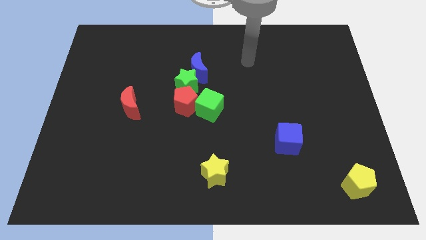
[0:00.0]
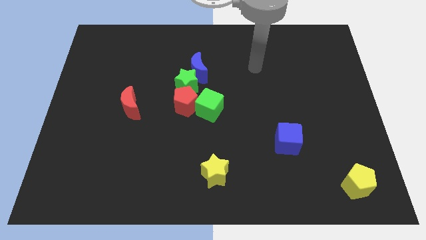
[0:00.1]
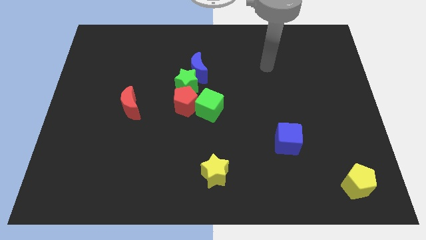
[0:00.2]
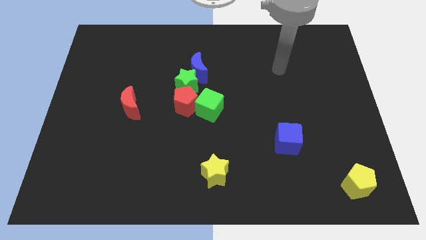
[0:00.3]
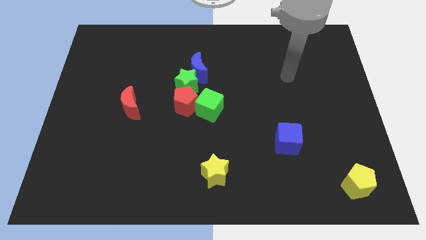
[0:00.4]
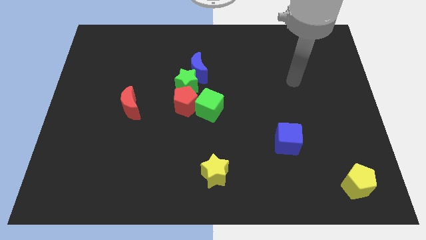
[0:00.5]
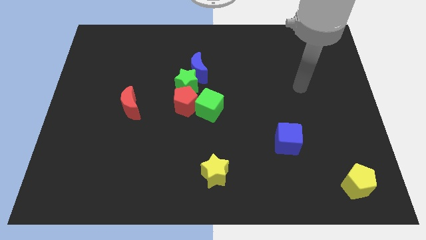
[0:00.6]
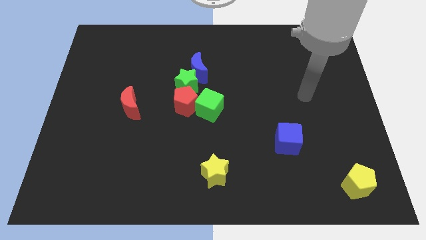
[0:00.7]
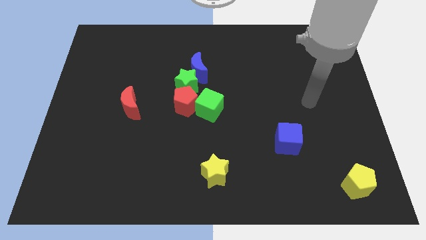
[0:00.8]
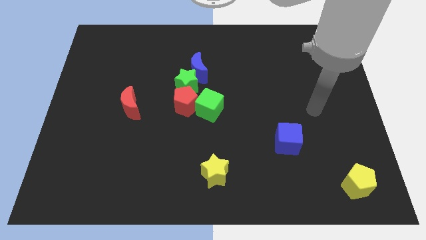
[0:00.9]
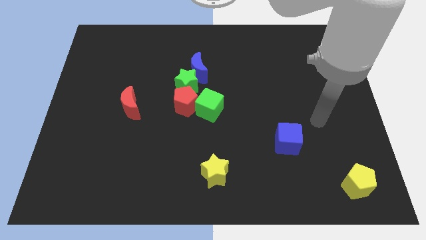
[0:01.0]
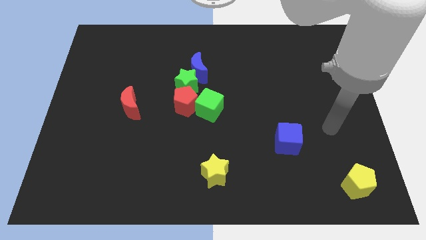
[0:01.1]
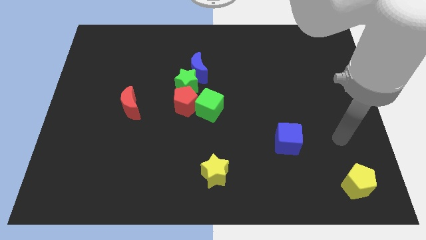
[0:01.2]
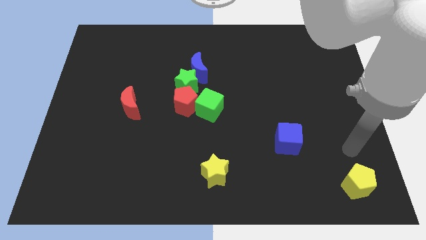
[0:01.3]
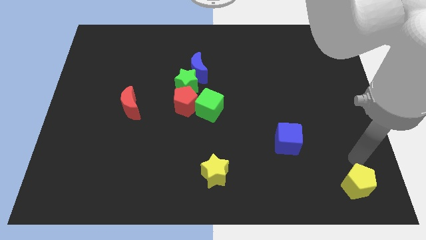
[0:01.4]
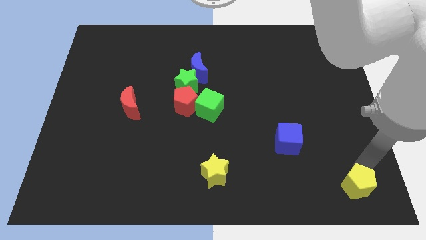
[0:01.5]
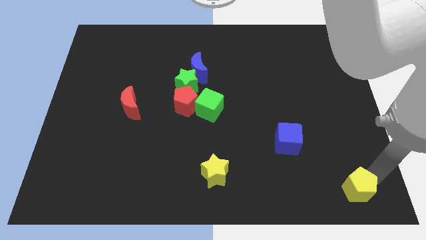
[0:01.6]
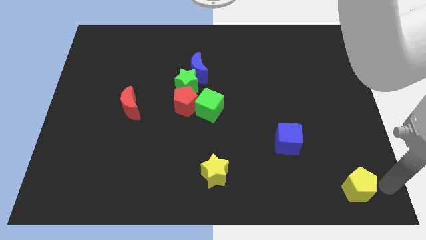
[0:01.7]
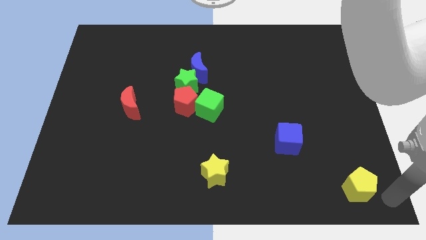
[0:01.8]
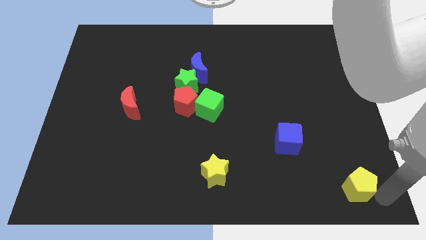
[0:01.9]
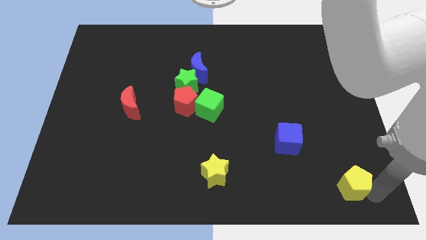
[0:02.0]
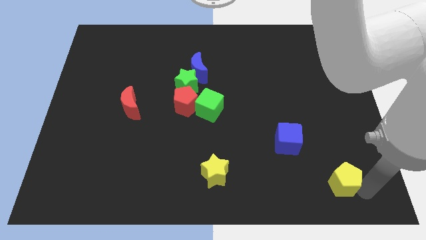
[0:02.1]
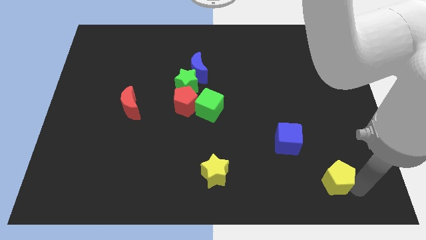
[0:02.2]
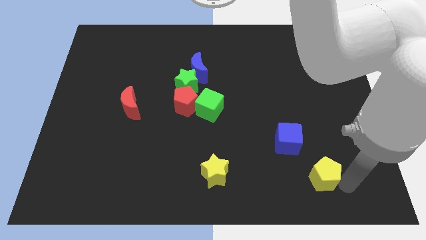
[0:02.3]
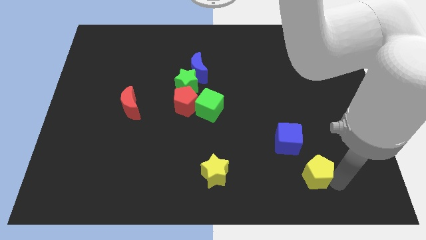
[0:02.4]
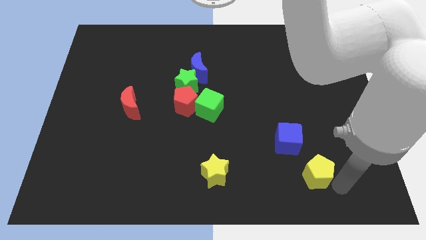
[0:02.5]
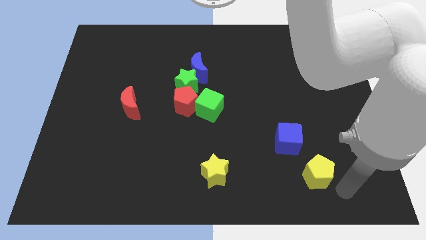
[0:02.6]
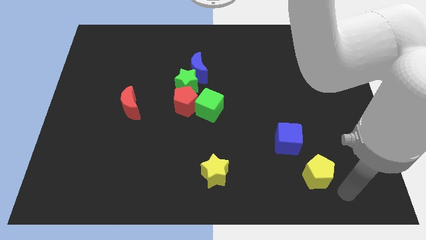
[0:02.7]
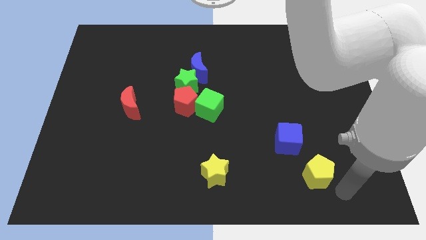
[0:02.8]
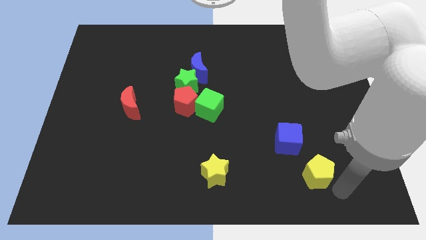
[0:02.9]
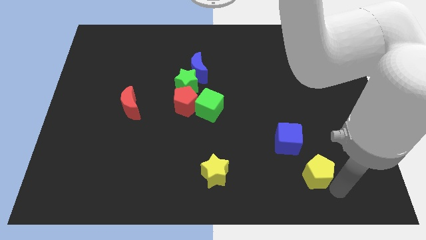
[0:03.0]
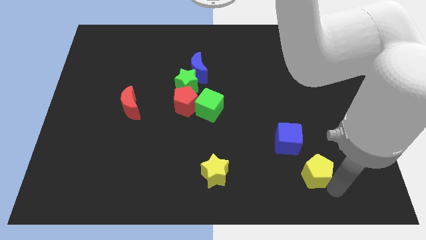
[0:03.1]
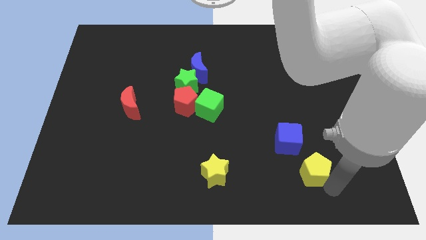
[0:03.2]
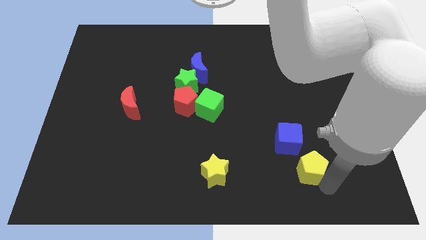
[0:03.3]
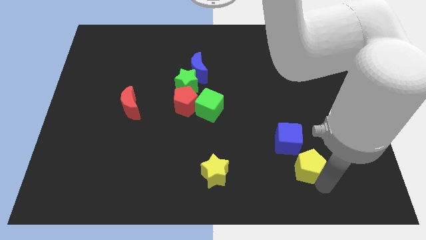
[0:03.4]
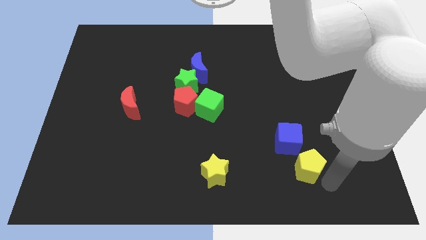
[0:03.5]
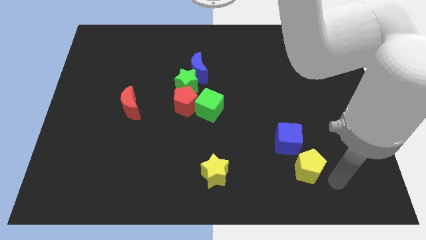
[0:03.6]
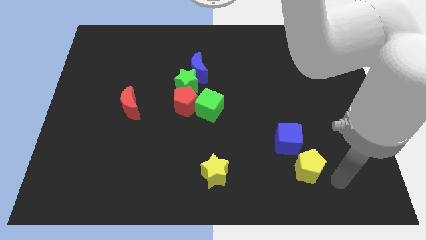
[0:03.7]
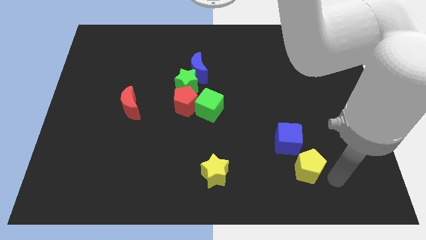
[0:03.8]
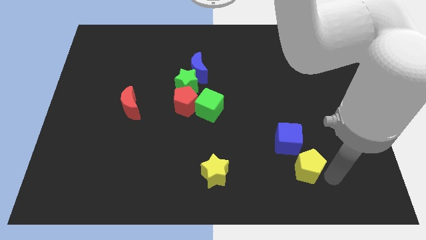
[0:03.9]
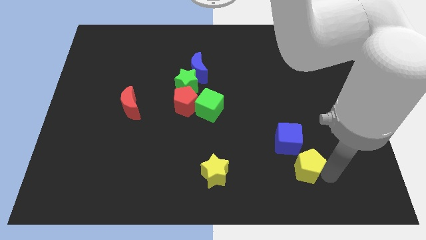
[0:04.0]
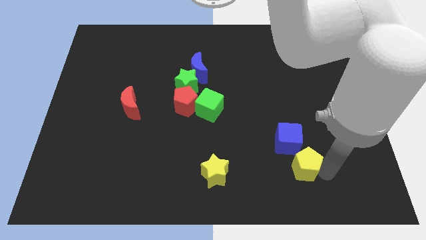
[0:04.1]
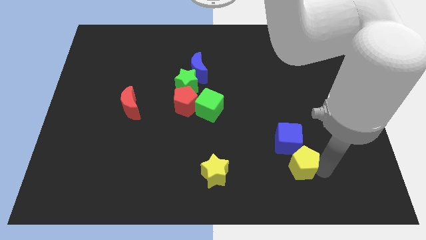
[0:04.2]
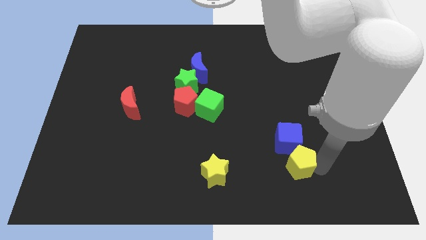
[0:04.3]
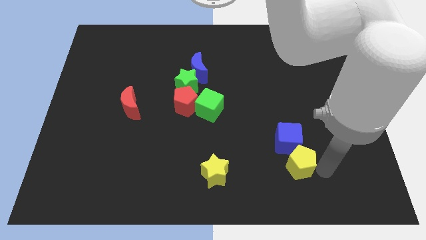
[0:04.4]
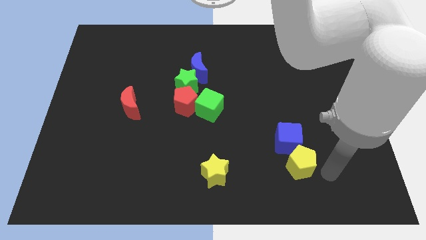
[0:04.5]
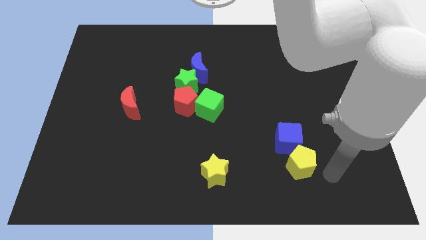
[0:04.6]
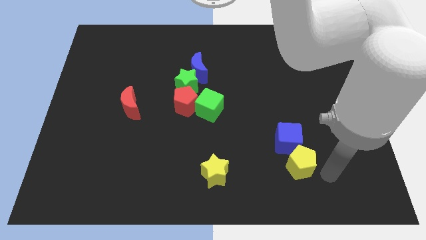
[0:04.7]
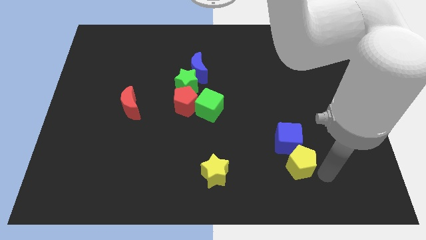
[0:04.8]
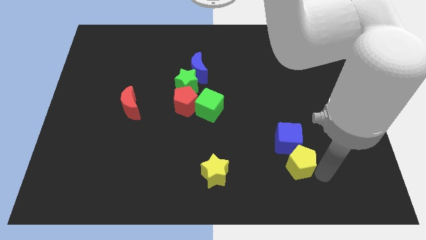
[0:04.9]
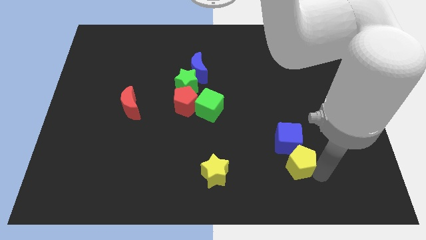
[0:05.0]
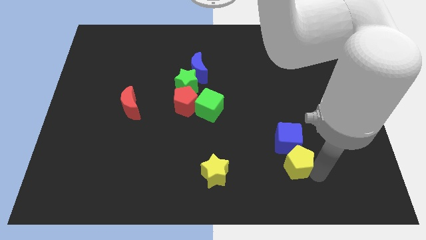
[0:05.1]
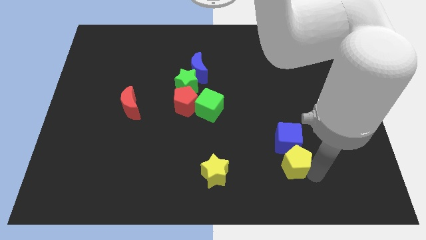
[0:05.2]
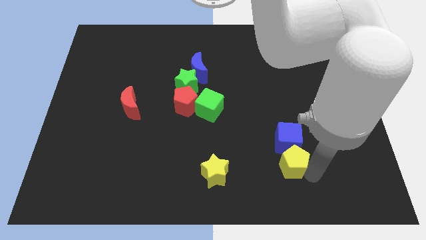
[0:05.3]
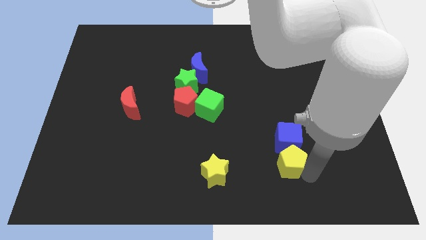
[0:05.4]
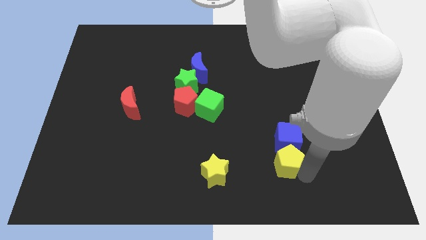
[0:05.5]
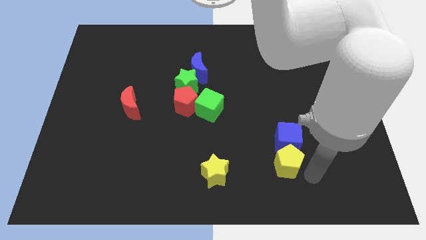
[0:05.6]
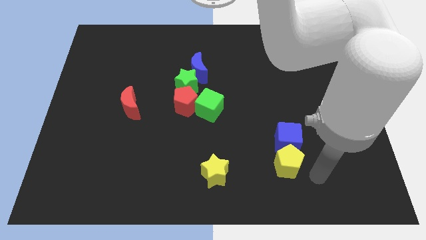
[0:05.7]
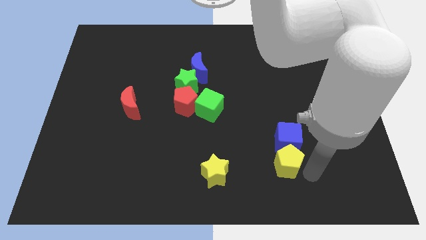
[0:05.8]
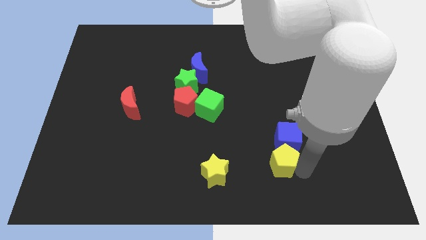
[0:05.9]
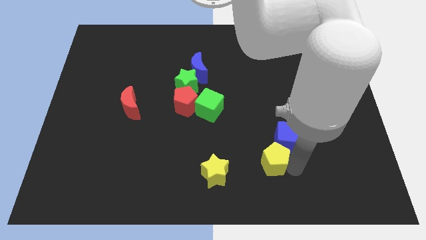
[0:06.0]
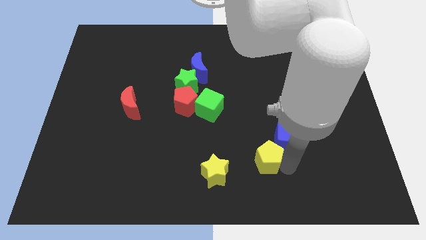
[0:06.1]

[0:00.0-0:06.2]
slide the yellow pentagon left of the blue cube

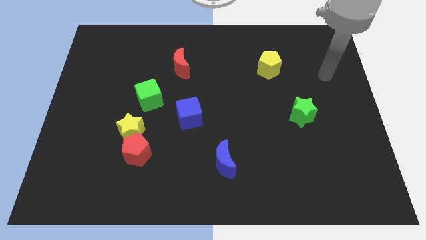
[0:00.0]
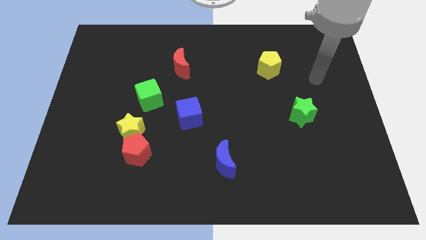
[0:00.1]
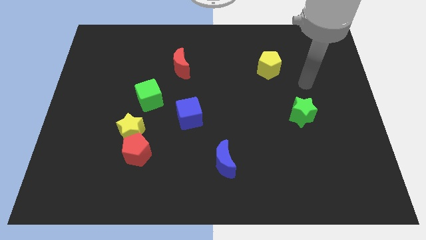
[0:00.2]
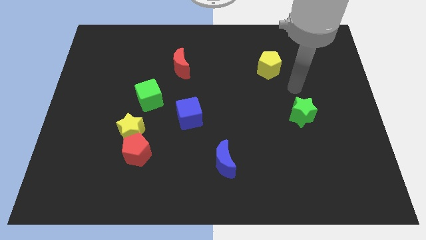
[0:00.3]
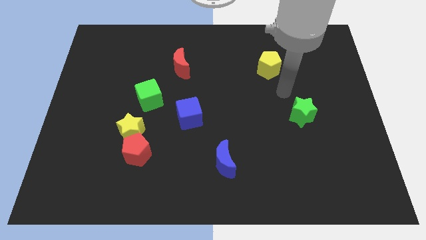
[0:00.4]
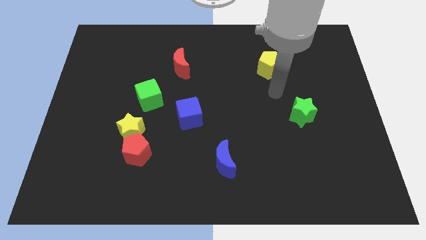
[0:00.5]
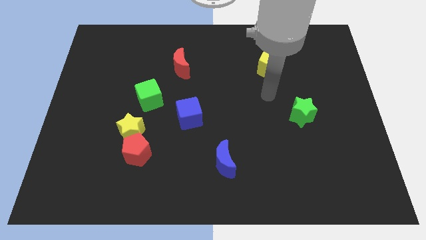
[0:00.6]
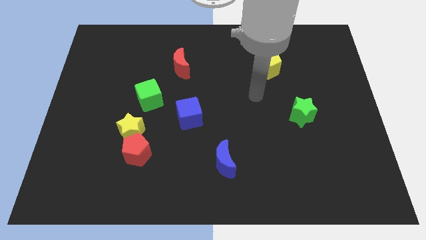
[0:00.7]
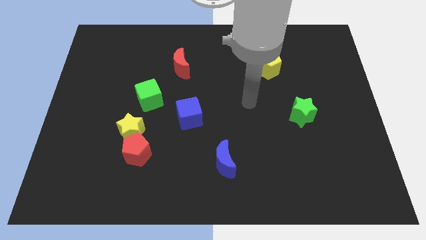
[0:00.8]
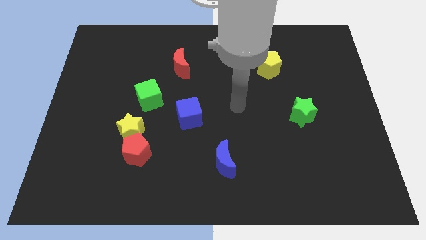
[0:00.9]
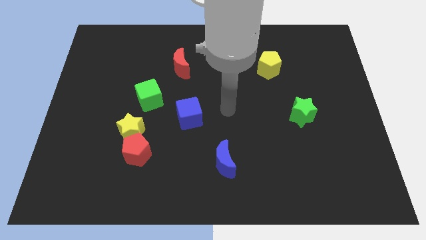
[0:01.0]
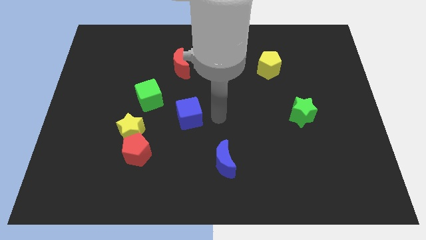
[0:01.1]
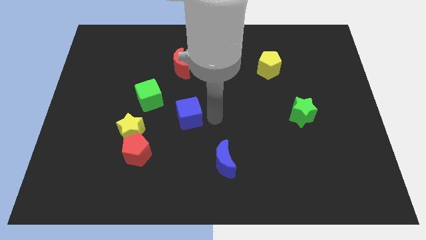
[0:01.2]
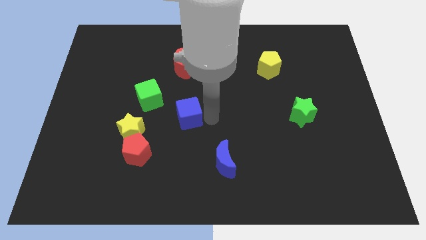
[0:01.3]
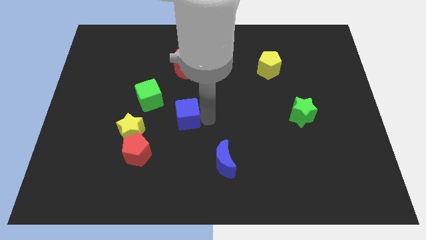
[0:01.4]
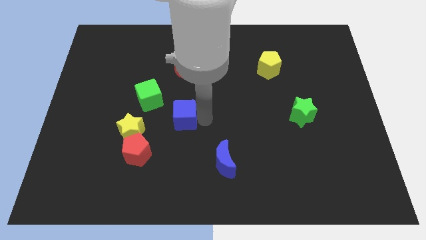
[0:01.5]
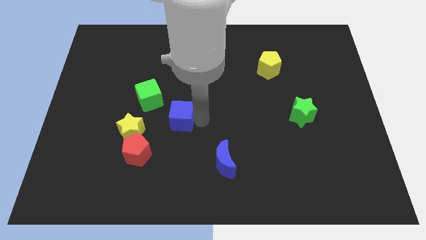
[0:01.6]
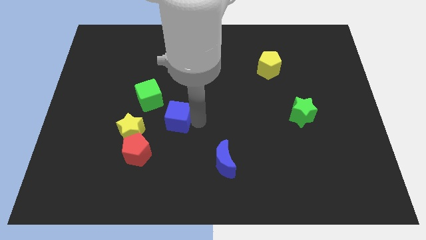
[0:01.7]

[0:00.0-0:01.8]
put the blue cube to the top right of the yellow star

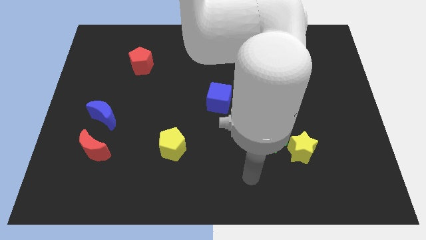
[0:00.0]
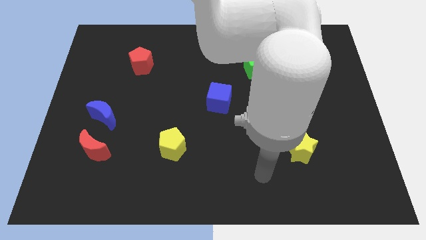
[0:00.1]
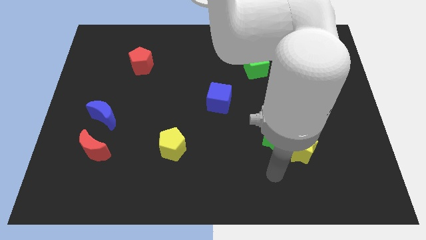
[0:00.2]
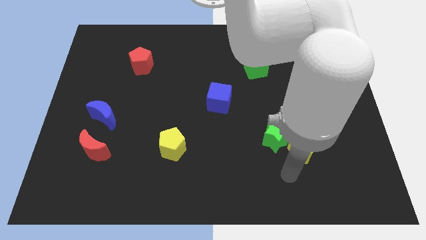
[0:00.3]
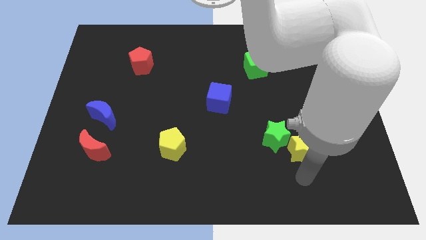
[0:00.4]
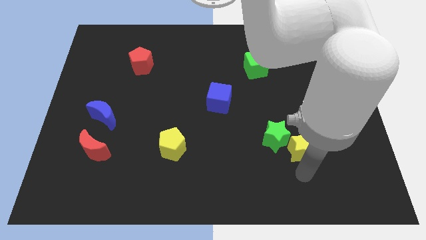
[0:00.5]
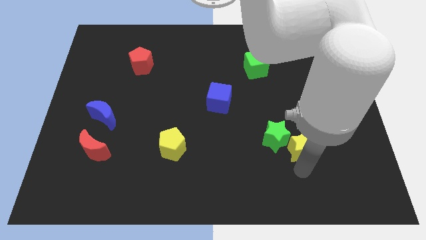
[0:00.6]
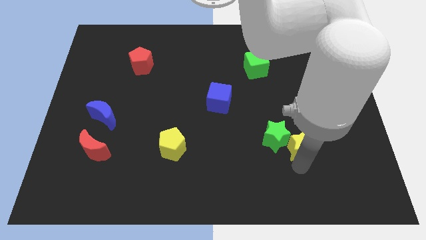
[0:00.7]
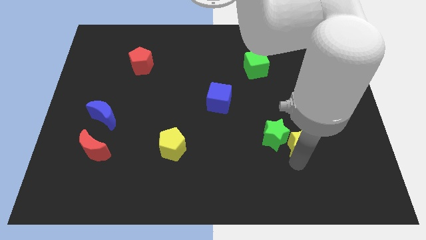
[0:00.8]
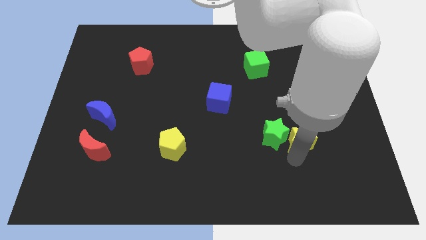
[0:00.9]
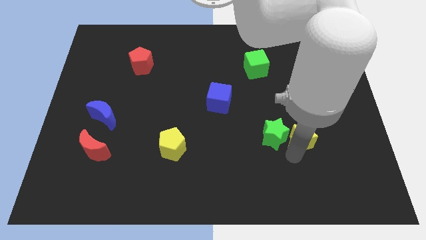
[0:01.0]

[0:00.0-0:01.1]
move the yellow star to the top right side of the green star
